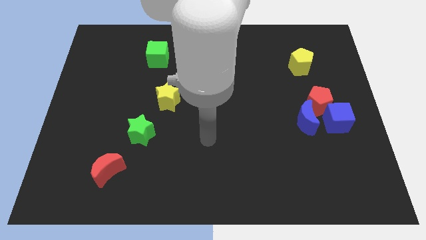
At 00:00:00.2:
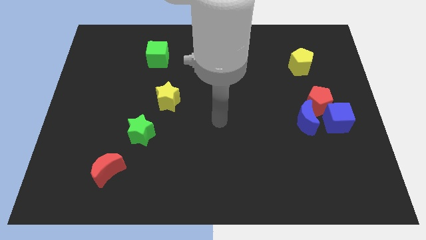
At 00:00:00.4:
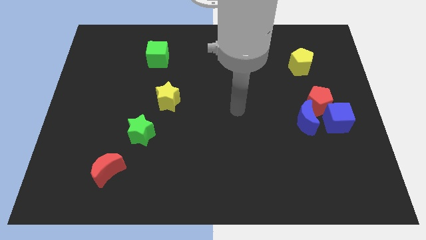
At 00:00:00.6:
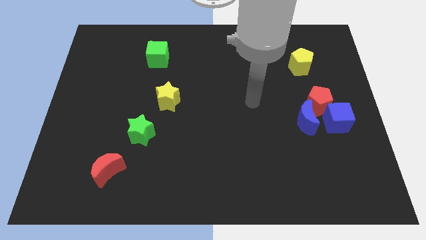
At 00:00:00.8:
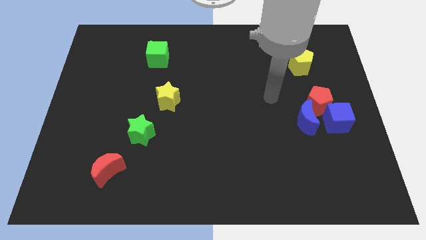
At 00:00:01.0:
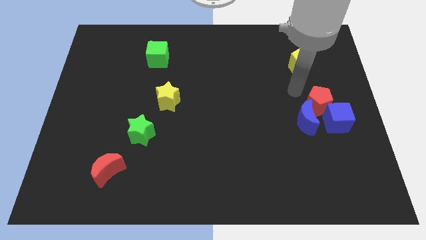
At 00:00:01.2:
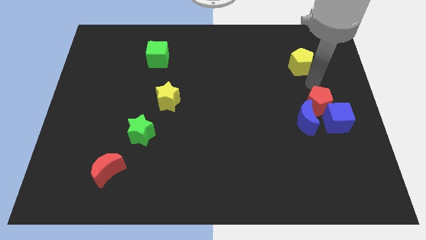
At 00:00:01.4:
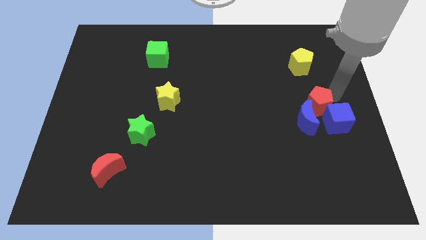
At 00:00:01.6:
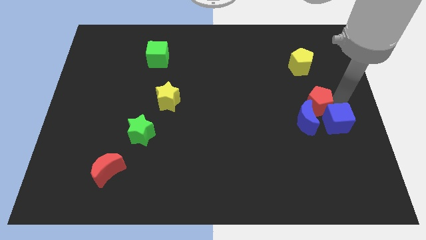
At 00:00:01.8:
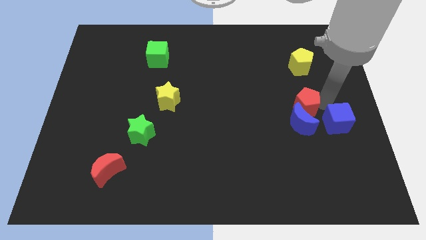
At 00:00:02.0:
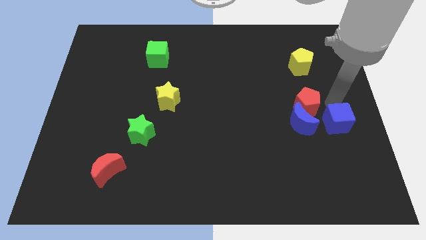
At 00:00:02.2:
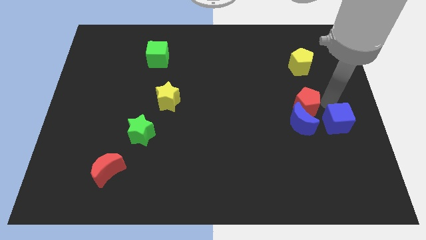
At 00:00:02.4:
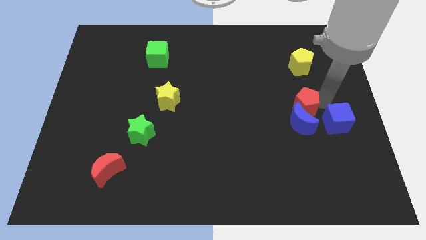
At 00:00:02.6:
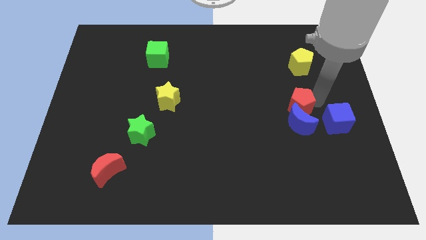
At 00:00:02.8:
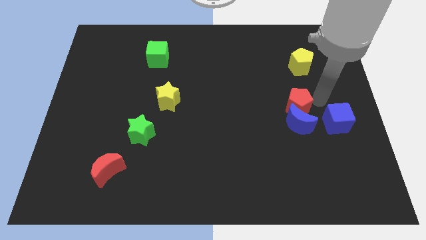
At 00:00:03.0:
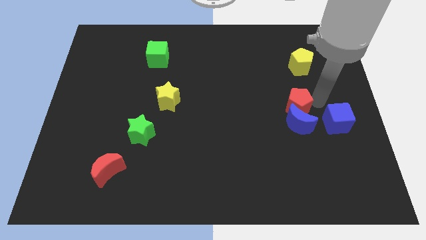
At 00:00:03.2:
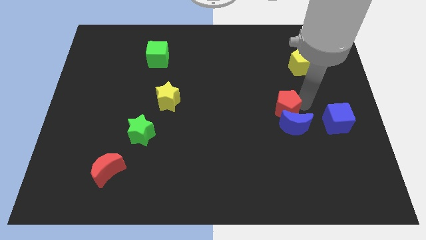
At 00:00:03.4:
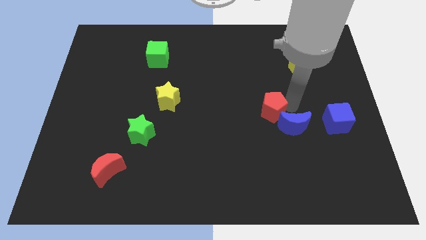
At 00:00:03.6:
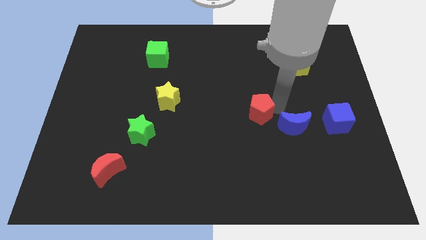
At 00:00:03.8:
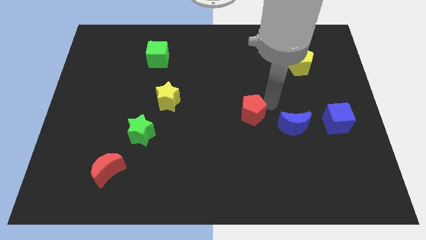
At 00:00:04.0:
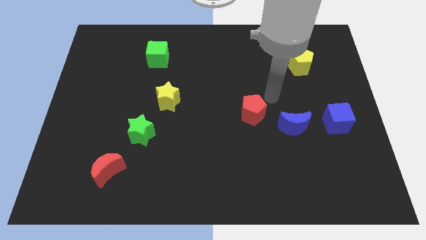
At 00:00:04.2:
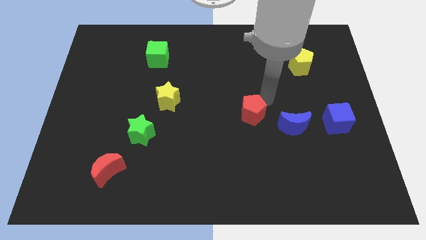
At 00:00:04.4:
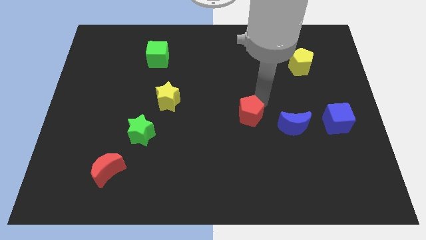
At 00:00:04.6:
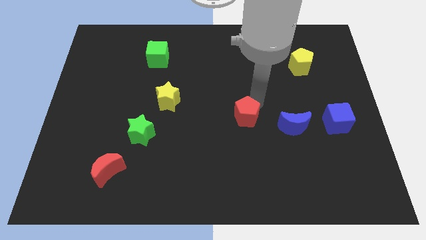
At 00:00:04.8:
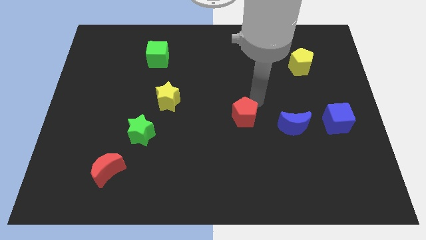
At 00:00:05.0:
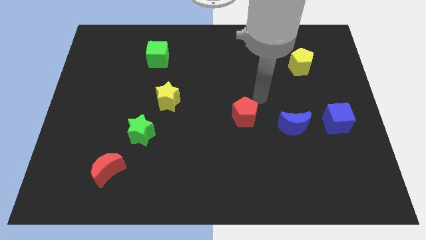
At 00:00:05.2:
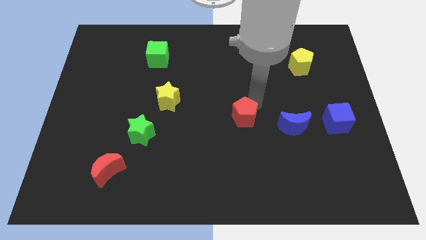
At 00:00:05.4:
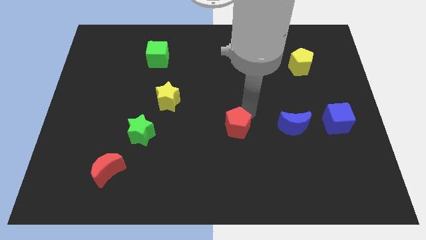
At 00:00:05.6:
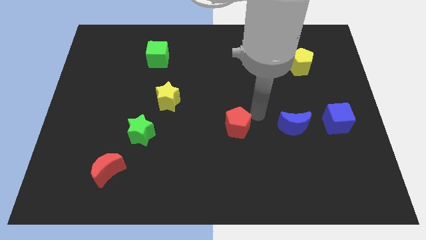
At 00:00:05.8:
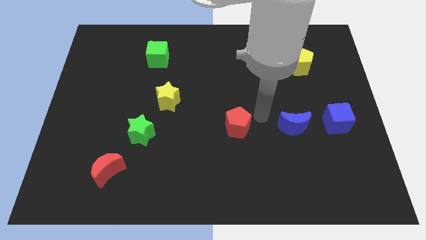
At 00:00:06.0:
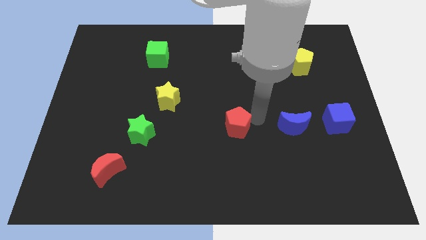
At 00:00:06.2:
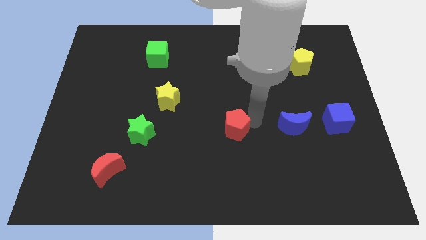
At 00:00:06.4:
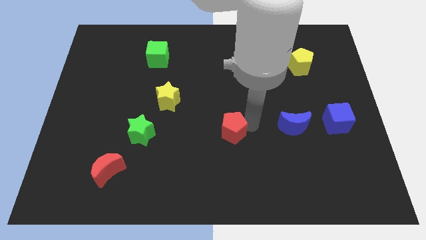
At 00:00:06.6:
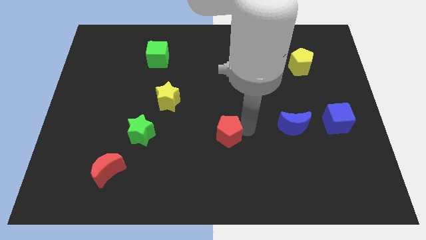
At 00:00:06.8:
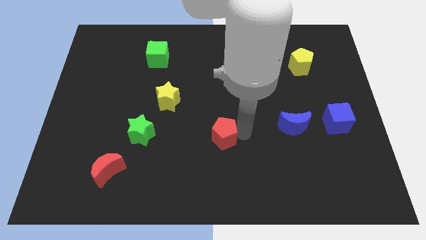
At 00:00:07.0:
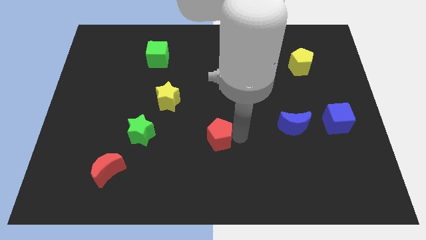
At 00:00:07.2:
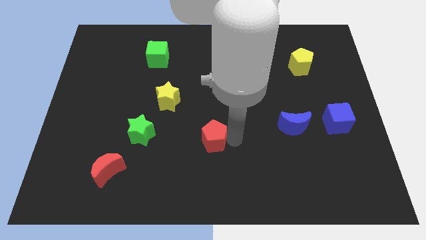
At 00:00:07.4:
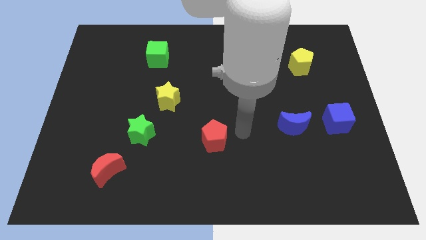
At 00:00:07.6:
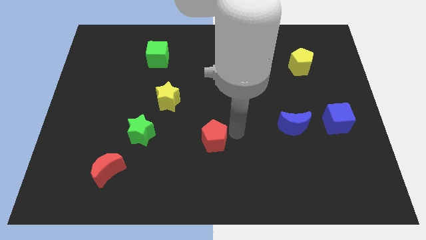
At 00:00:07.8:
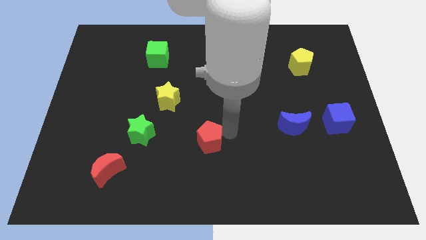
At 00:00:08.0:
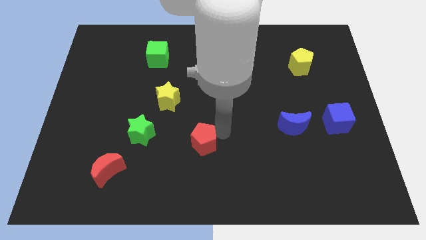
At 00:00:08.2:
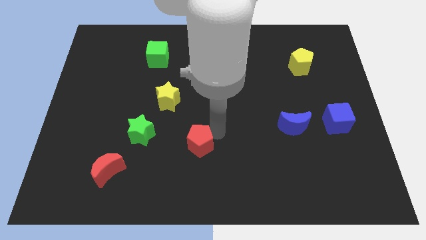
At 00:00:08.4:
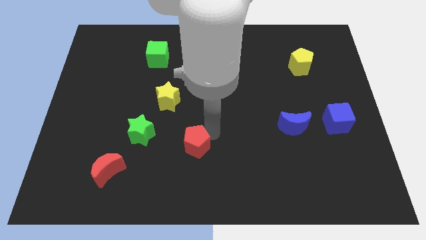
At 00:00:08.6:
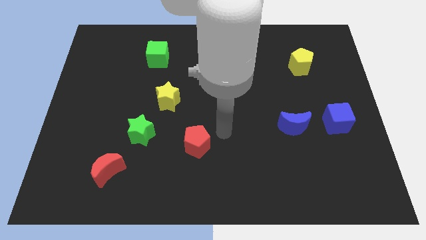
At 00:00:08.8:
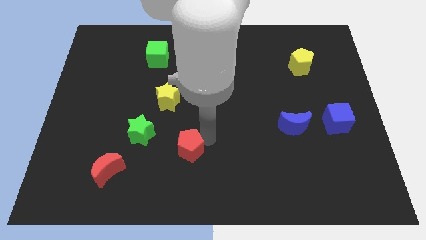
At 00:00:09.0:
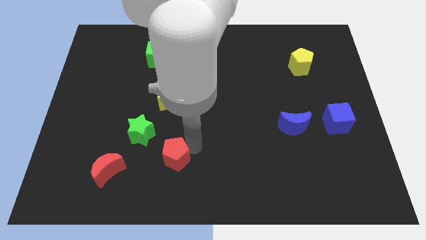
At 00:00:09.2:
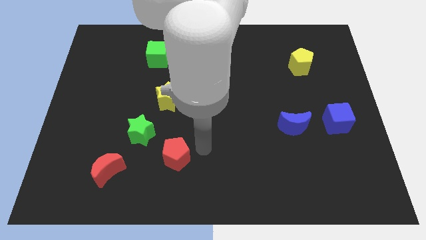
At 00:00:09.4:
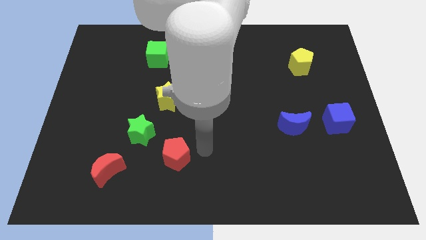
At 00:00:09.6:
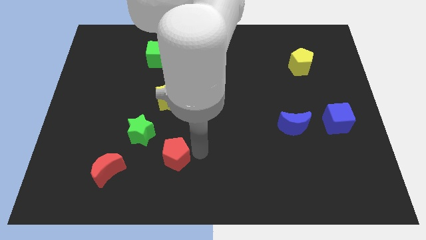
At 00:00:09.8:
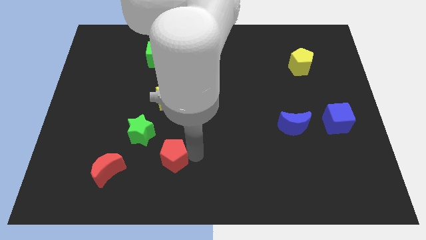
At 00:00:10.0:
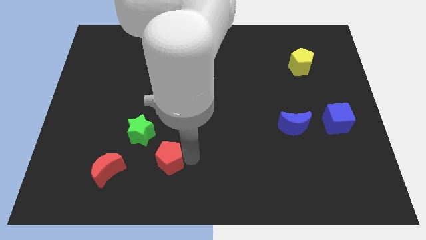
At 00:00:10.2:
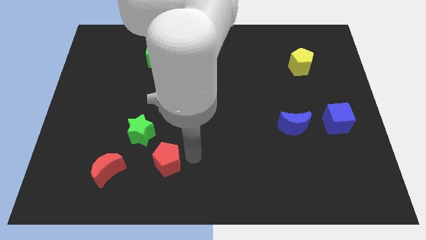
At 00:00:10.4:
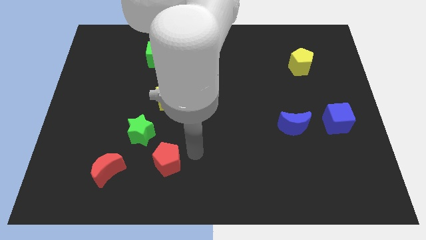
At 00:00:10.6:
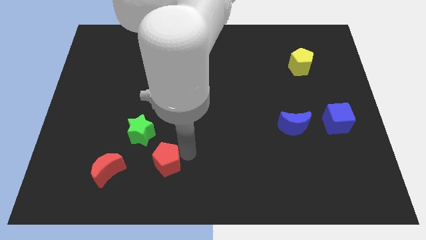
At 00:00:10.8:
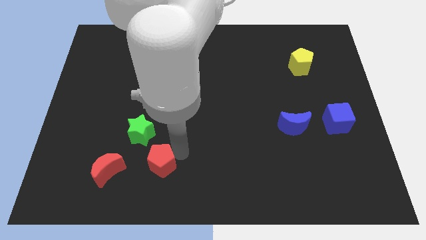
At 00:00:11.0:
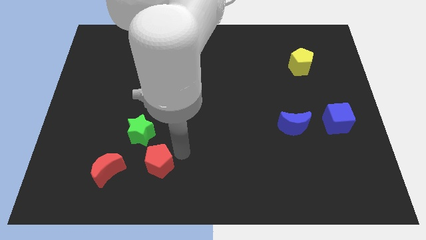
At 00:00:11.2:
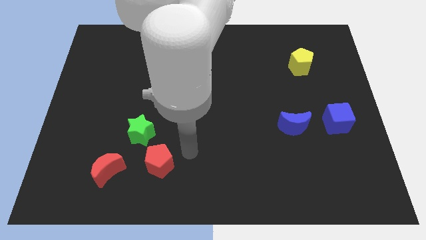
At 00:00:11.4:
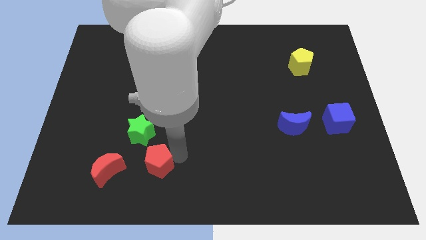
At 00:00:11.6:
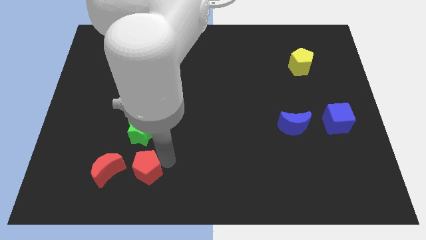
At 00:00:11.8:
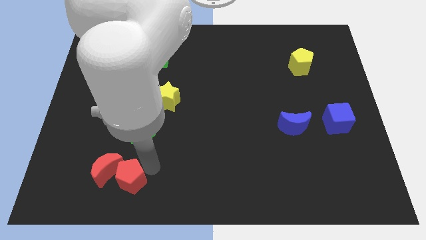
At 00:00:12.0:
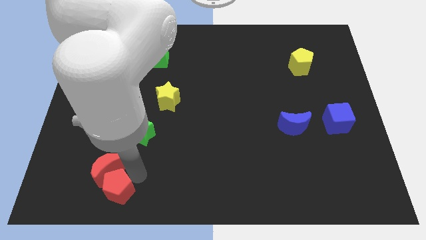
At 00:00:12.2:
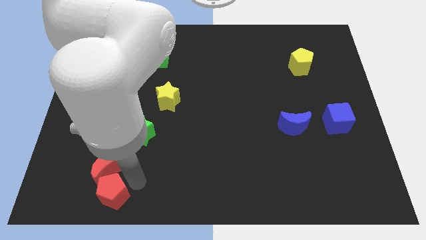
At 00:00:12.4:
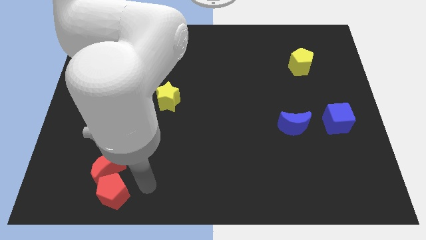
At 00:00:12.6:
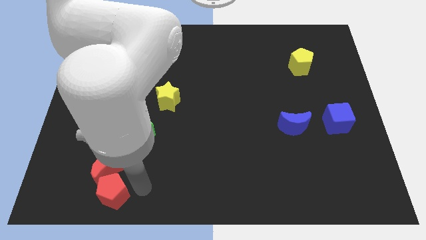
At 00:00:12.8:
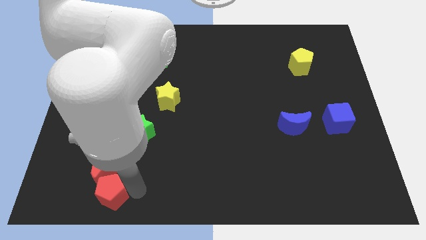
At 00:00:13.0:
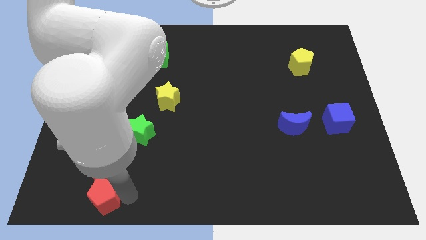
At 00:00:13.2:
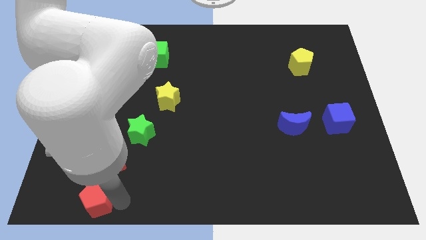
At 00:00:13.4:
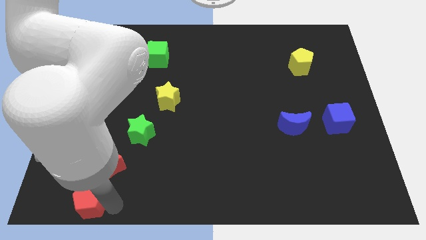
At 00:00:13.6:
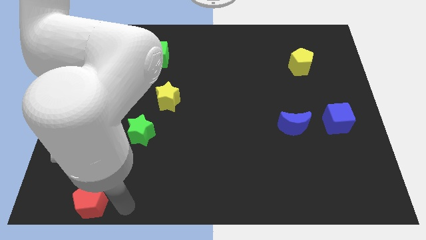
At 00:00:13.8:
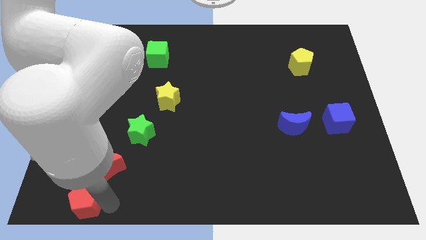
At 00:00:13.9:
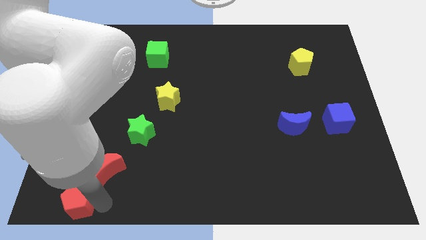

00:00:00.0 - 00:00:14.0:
slide the red pentagon to the bottom left of the board
